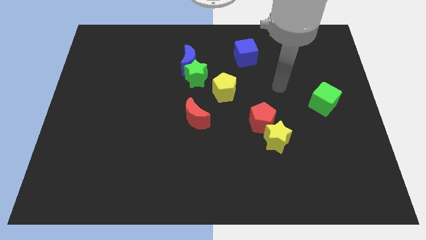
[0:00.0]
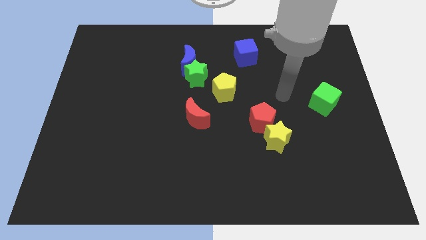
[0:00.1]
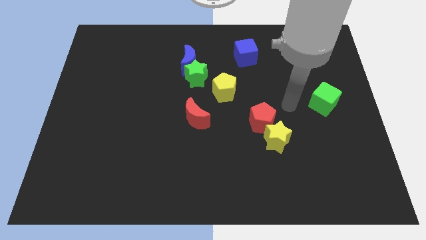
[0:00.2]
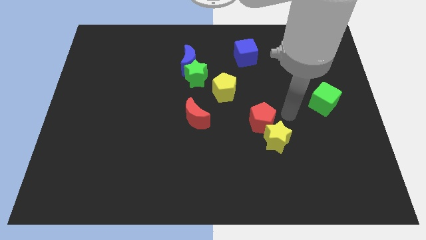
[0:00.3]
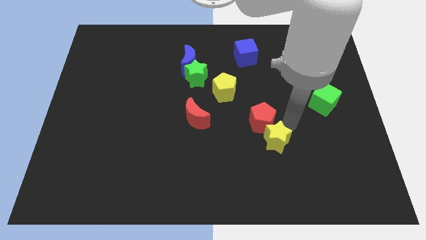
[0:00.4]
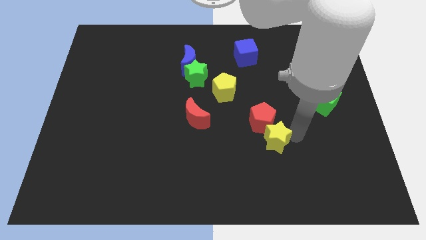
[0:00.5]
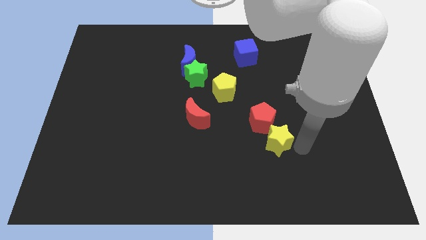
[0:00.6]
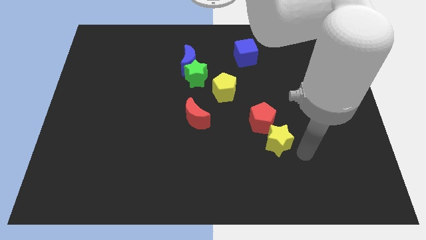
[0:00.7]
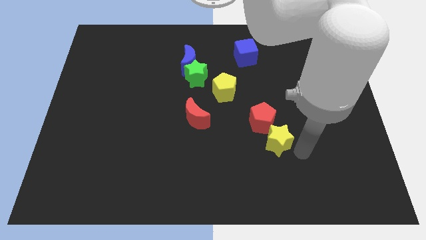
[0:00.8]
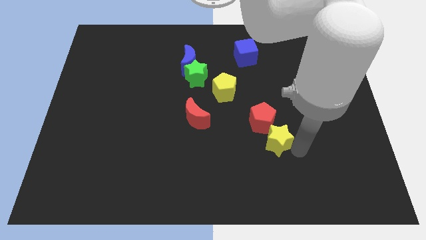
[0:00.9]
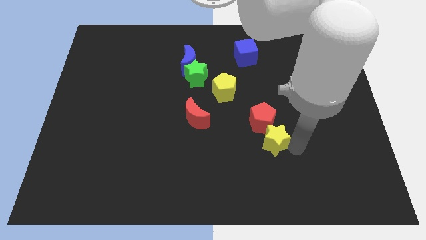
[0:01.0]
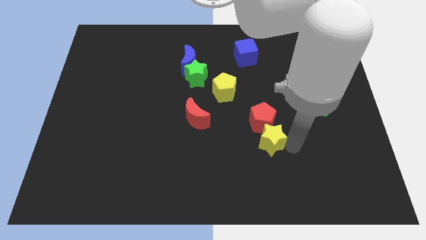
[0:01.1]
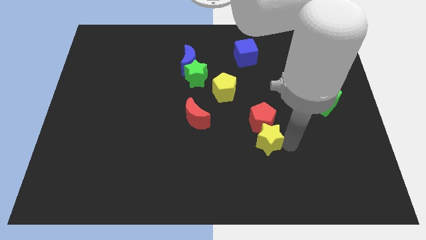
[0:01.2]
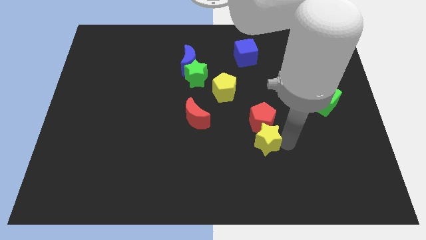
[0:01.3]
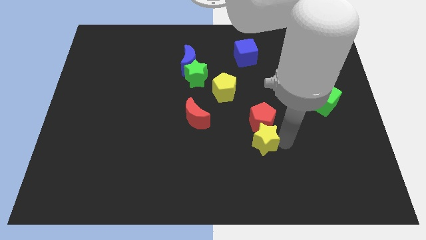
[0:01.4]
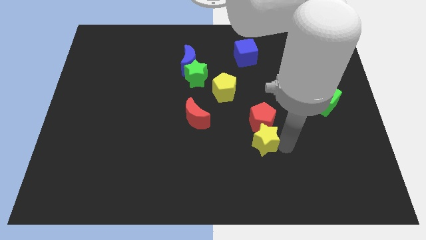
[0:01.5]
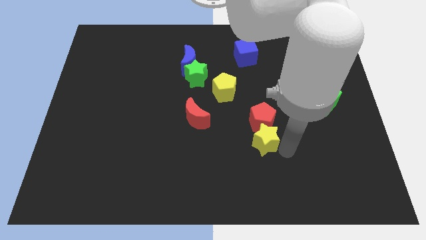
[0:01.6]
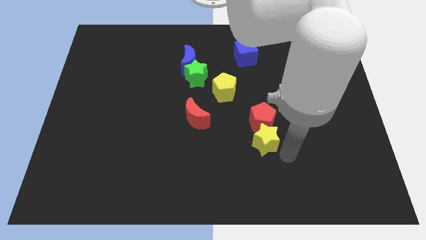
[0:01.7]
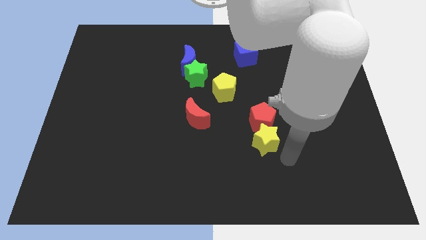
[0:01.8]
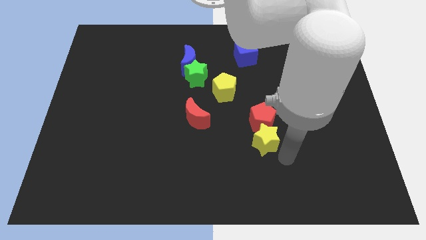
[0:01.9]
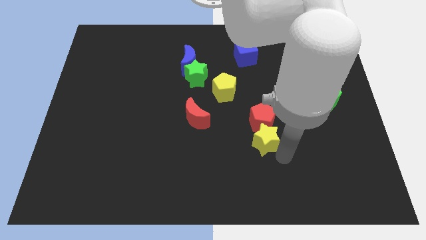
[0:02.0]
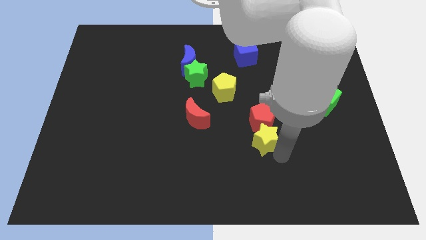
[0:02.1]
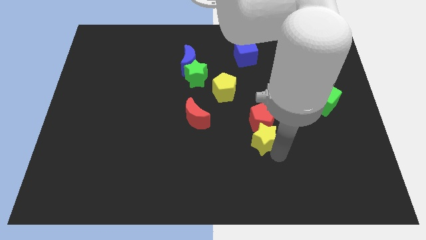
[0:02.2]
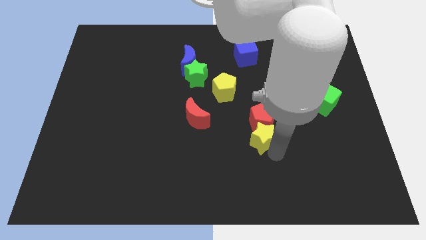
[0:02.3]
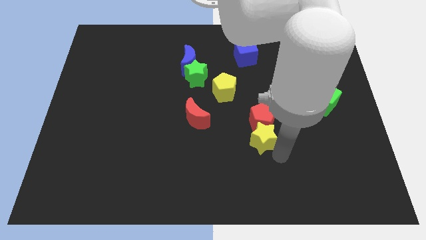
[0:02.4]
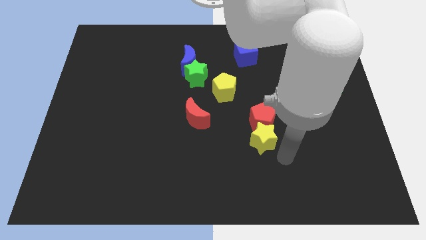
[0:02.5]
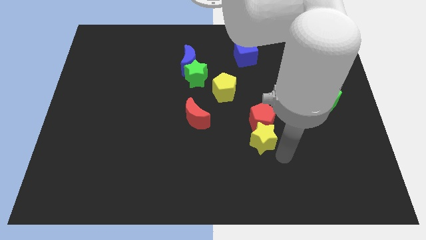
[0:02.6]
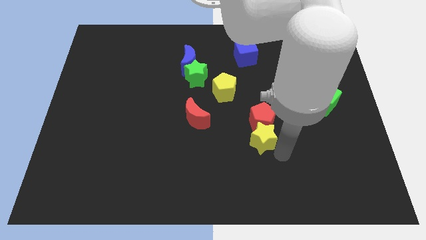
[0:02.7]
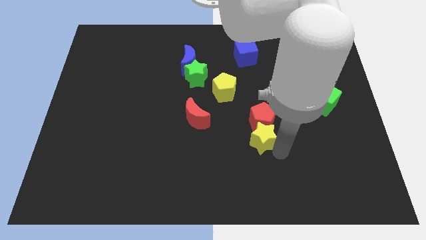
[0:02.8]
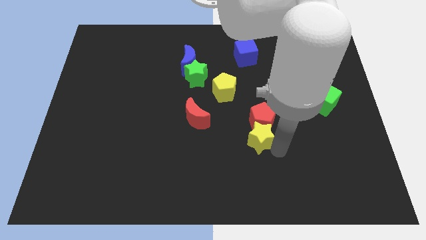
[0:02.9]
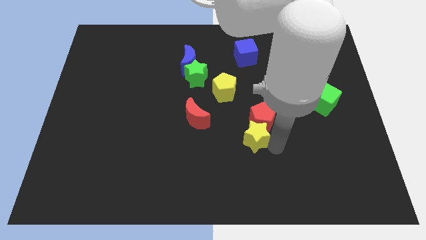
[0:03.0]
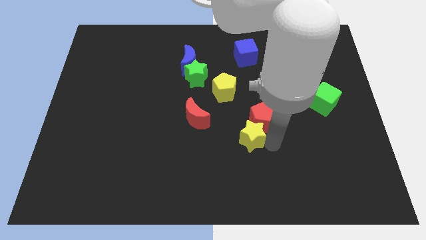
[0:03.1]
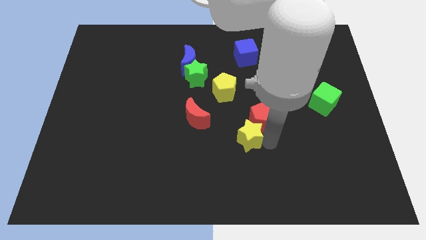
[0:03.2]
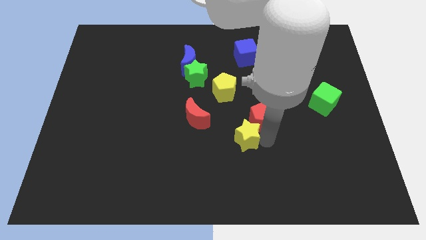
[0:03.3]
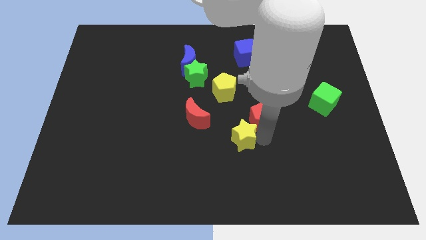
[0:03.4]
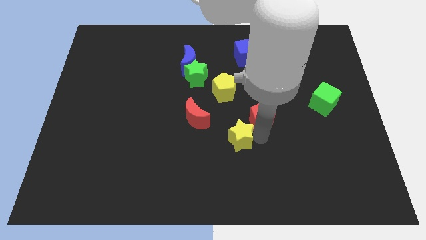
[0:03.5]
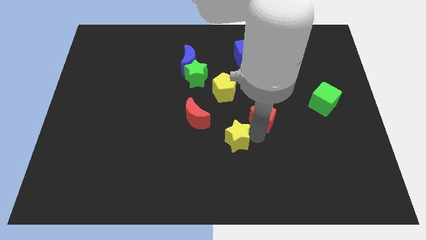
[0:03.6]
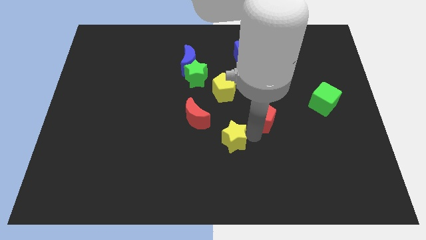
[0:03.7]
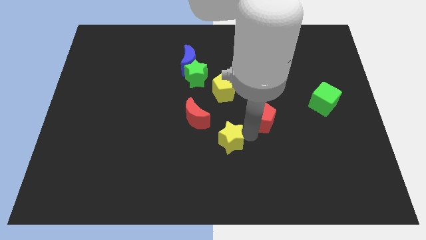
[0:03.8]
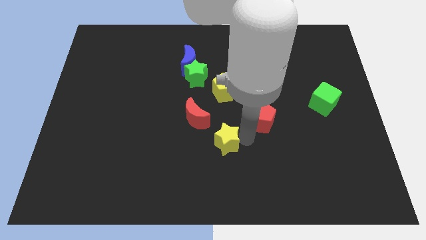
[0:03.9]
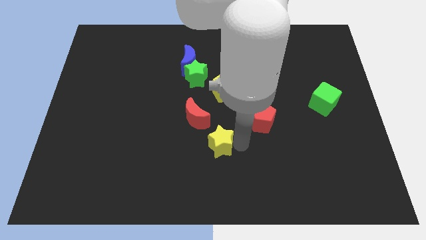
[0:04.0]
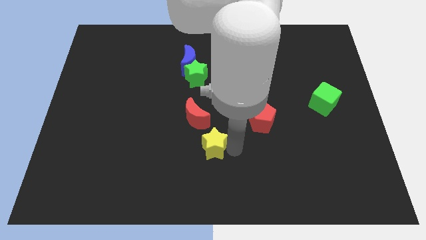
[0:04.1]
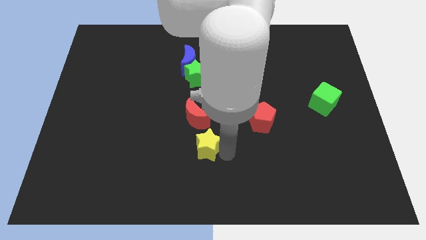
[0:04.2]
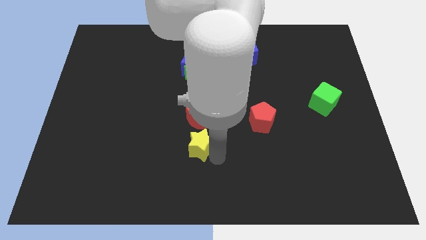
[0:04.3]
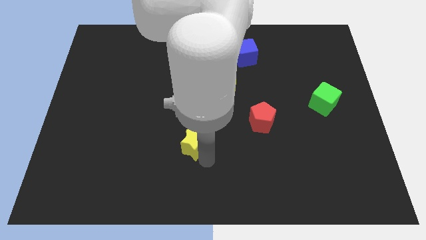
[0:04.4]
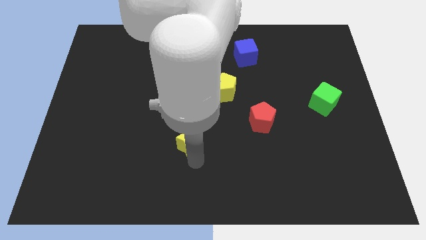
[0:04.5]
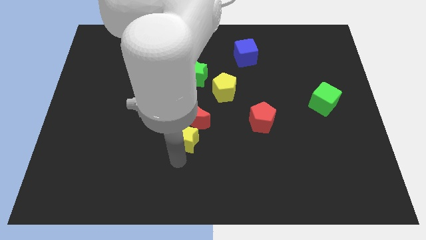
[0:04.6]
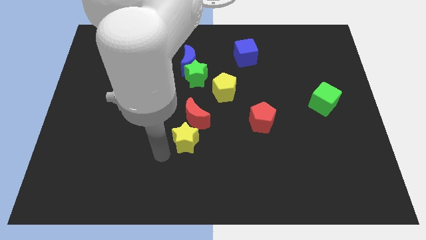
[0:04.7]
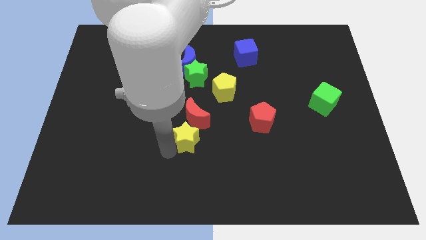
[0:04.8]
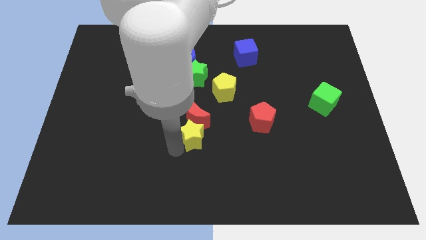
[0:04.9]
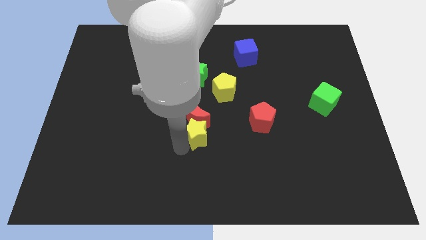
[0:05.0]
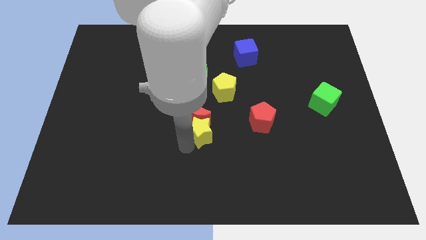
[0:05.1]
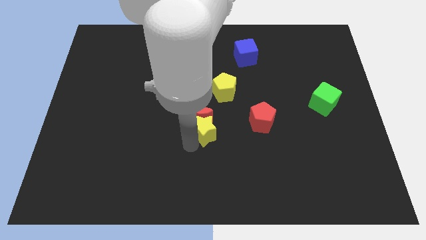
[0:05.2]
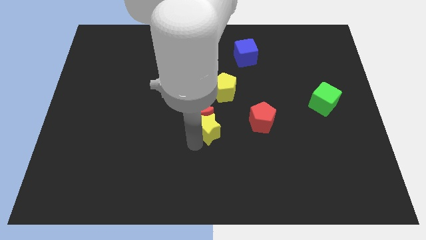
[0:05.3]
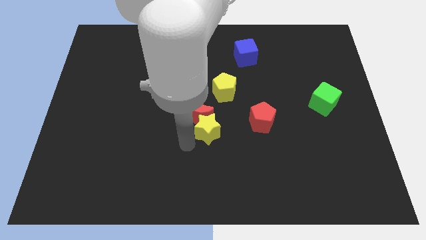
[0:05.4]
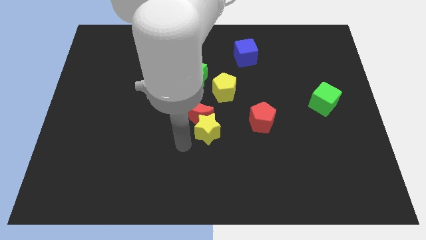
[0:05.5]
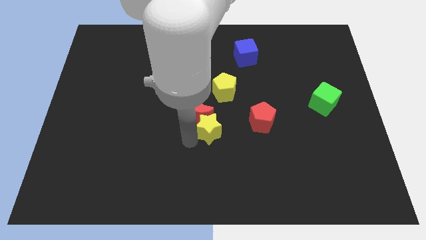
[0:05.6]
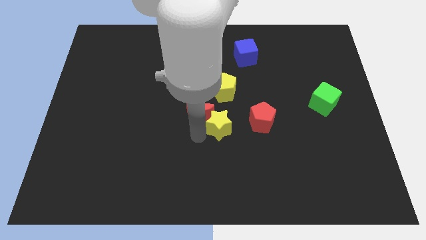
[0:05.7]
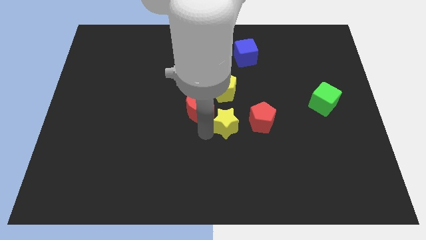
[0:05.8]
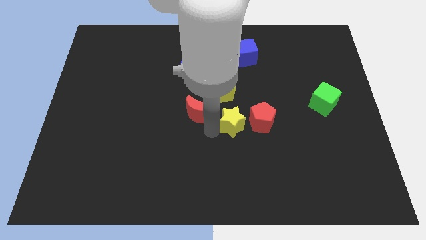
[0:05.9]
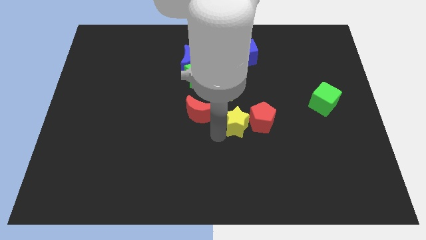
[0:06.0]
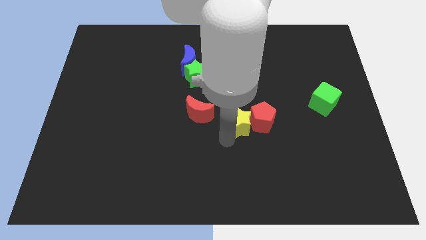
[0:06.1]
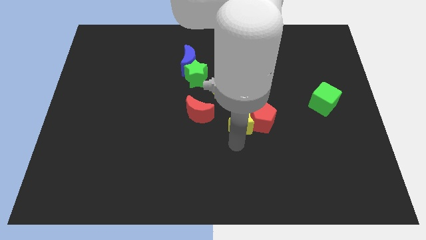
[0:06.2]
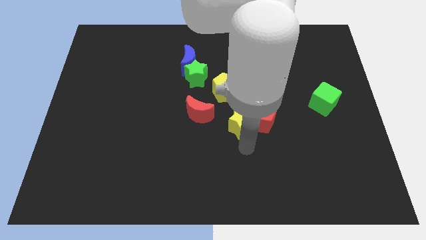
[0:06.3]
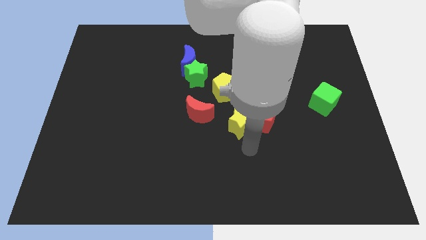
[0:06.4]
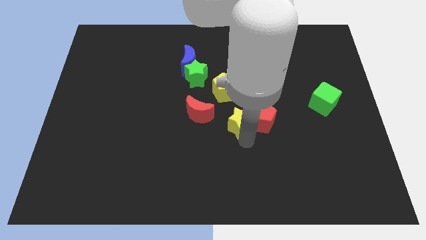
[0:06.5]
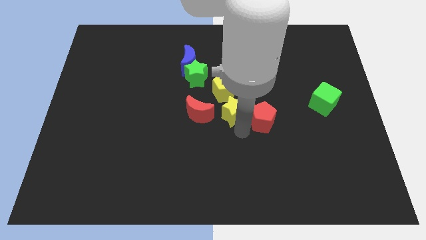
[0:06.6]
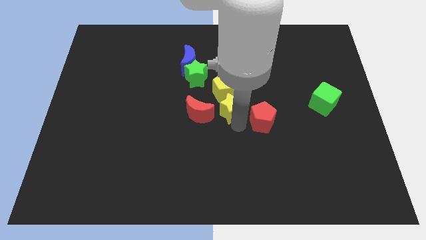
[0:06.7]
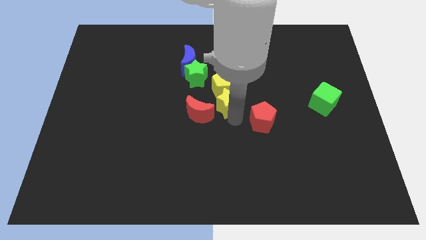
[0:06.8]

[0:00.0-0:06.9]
put the yellow star towards the yellow pentagon
